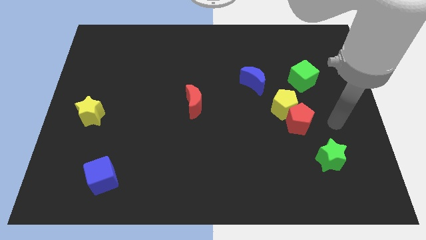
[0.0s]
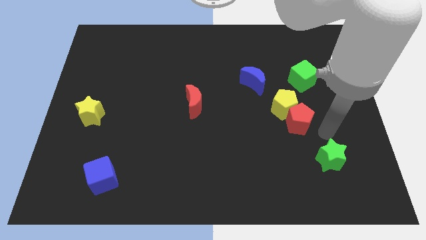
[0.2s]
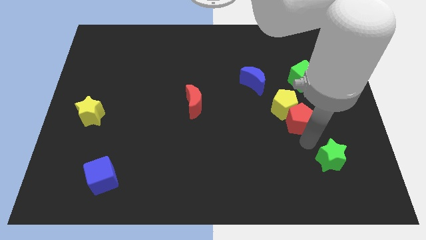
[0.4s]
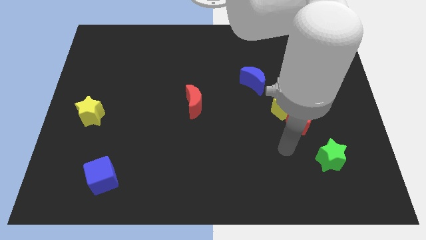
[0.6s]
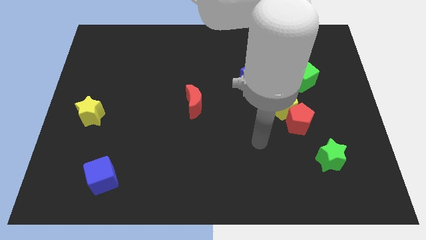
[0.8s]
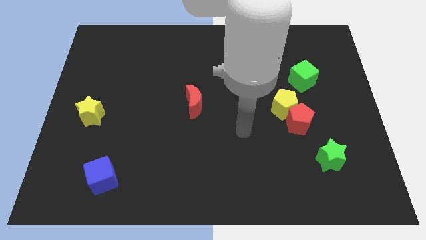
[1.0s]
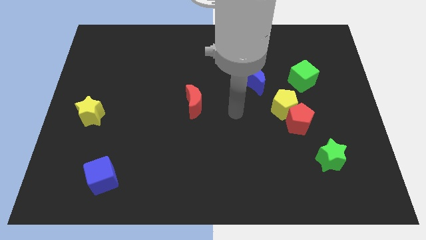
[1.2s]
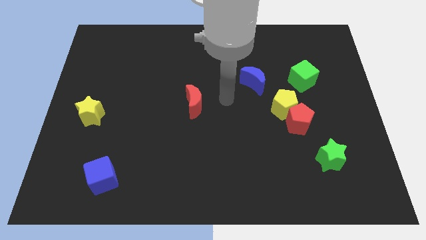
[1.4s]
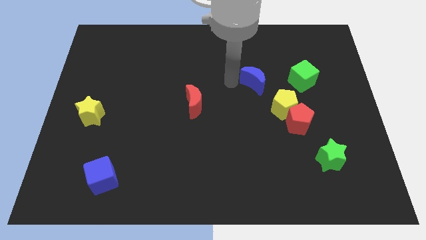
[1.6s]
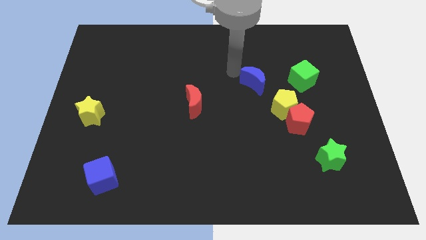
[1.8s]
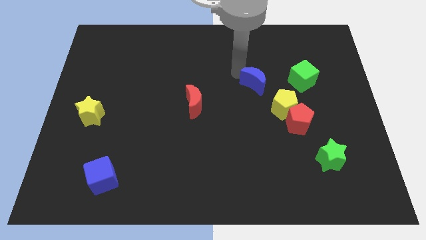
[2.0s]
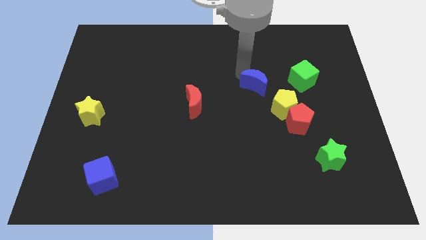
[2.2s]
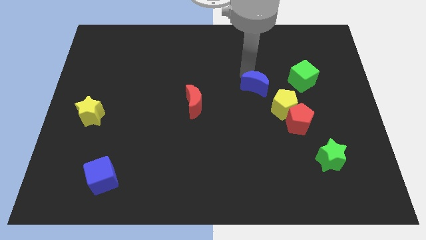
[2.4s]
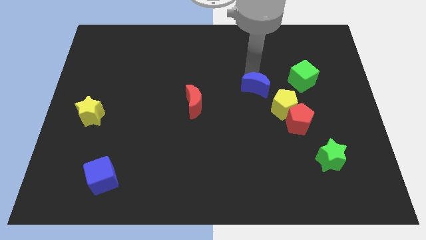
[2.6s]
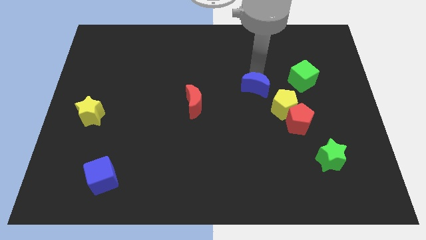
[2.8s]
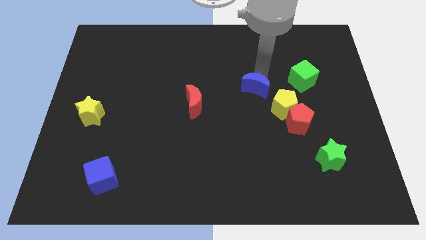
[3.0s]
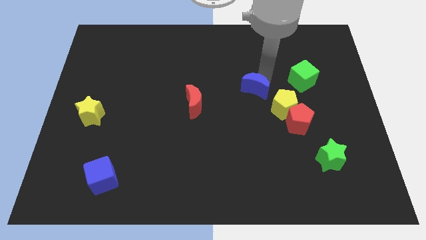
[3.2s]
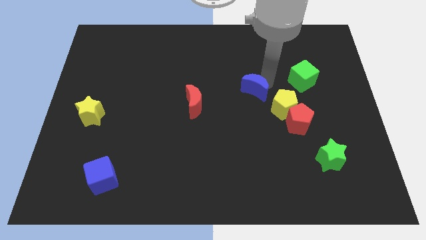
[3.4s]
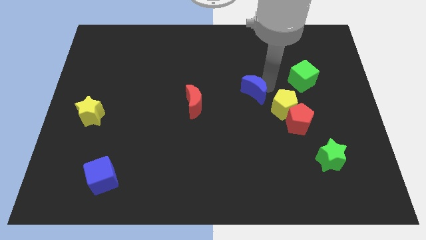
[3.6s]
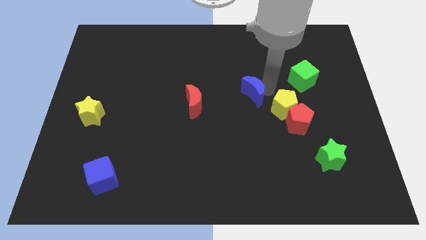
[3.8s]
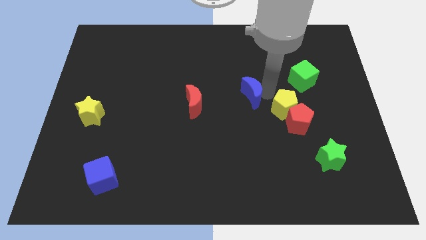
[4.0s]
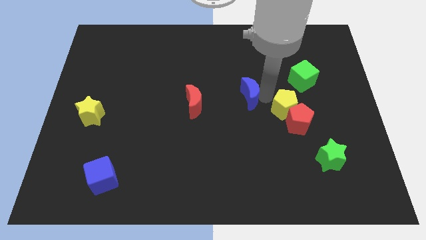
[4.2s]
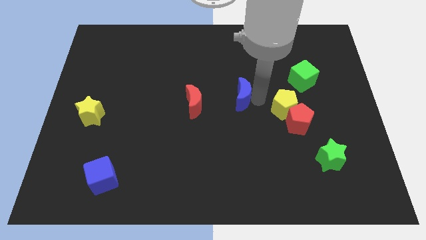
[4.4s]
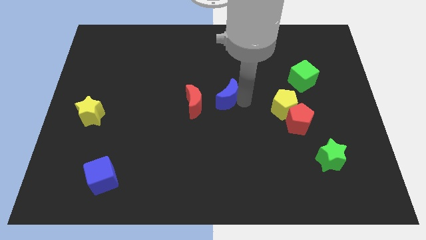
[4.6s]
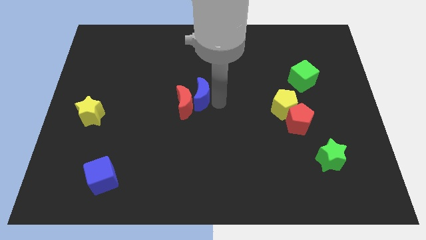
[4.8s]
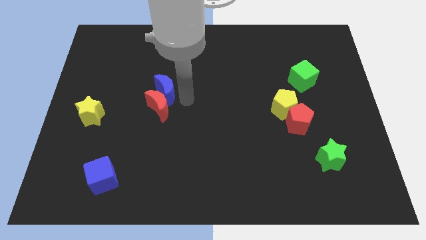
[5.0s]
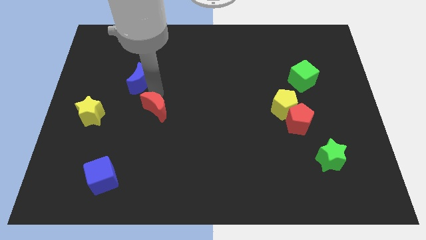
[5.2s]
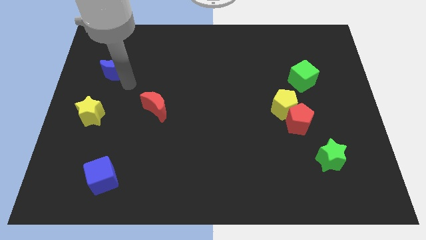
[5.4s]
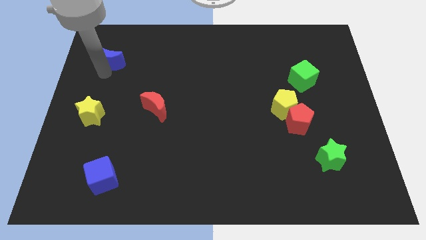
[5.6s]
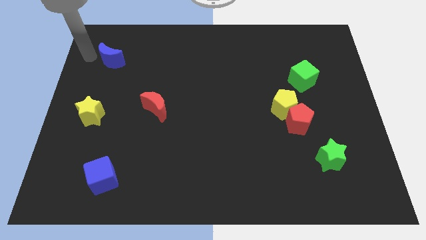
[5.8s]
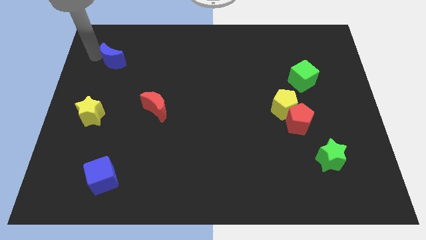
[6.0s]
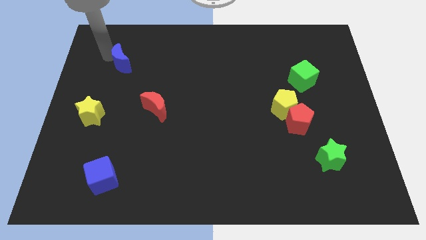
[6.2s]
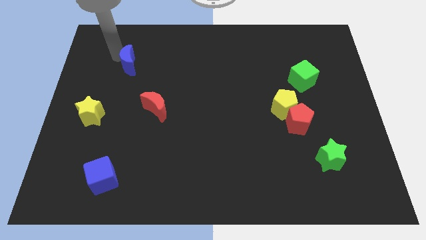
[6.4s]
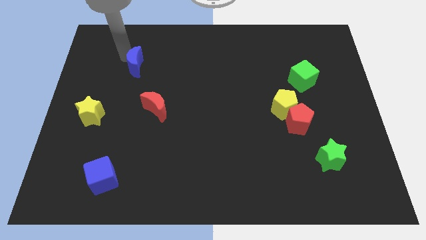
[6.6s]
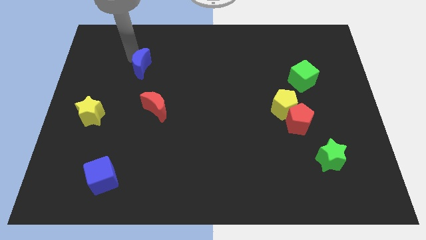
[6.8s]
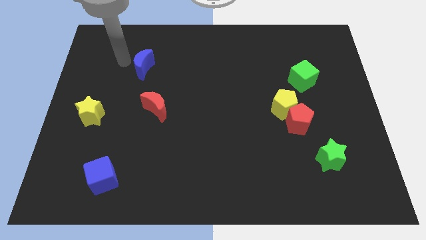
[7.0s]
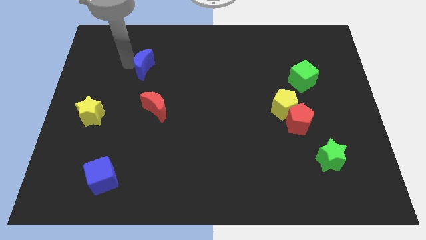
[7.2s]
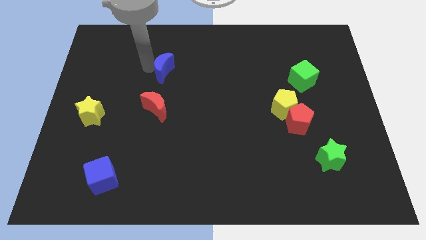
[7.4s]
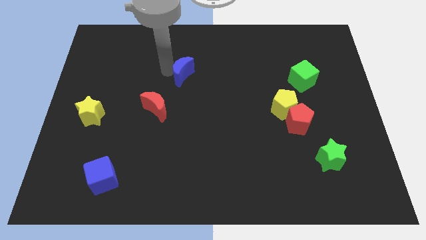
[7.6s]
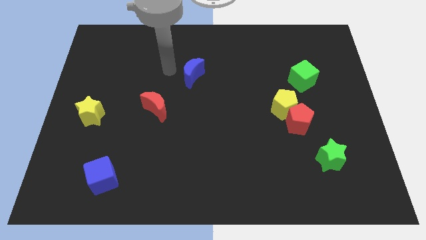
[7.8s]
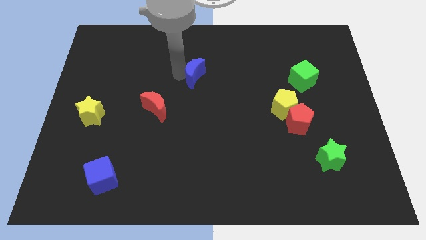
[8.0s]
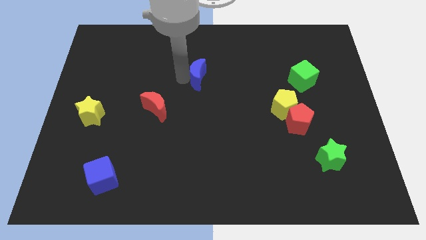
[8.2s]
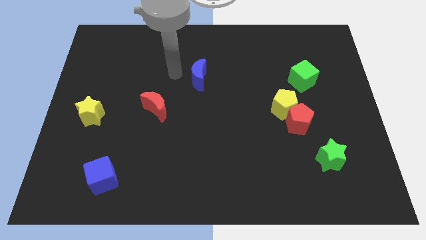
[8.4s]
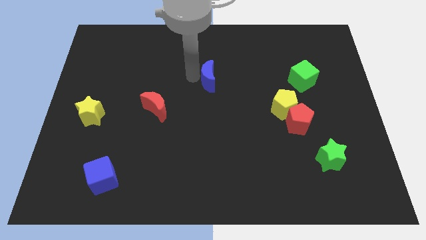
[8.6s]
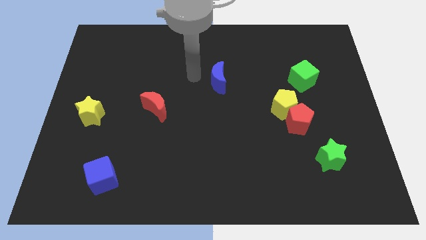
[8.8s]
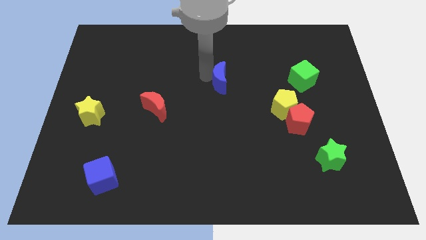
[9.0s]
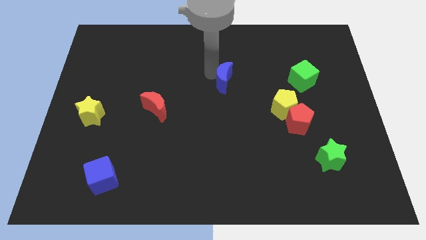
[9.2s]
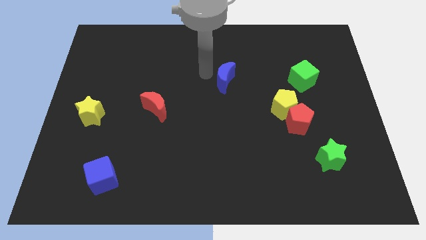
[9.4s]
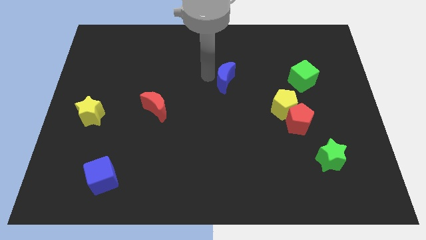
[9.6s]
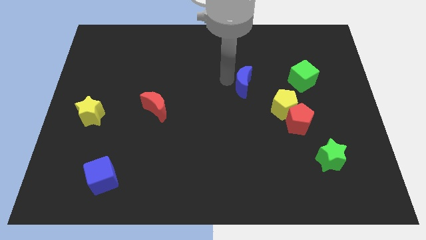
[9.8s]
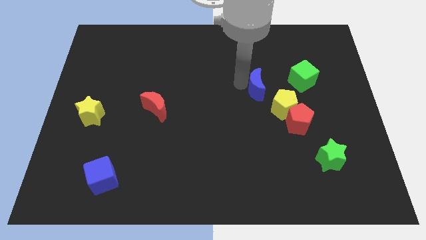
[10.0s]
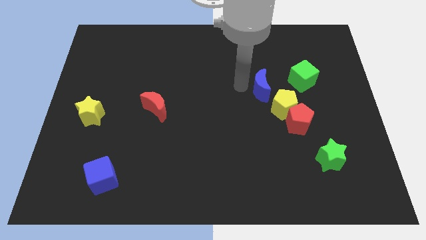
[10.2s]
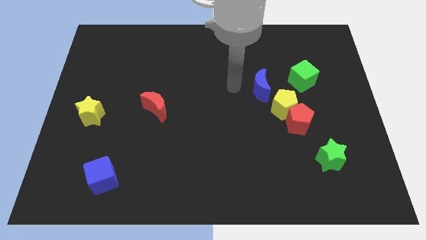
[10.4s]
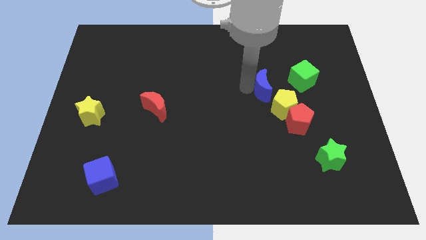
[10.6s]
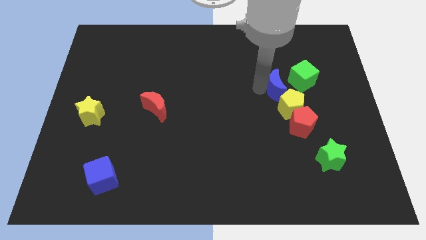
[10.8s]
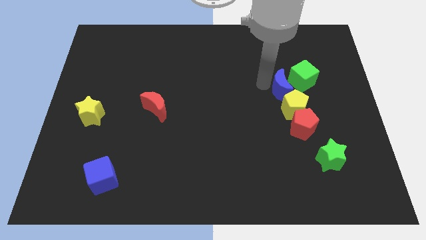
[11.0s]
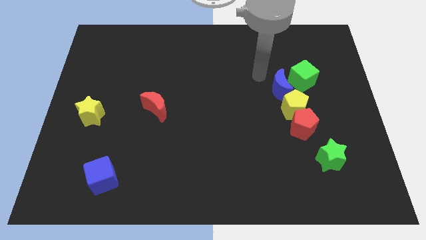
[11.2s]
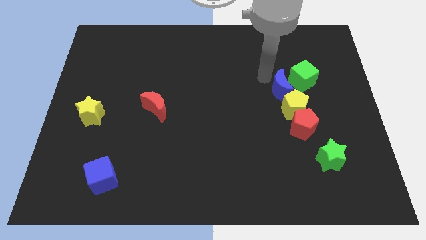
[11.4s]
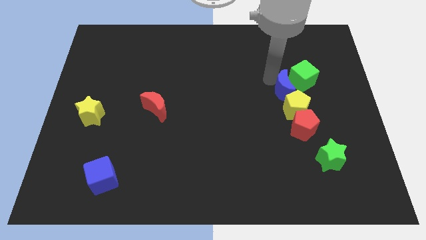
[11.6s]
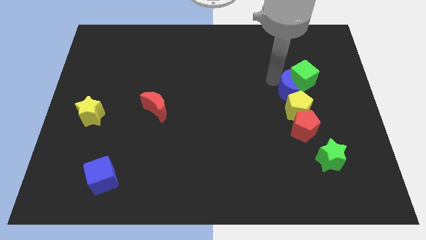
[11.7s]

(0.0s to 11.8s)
move the blue moon down and then right a little

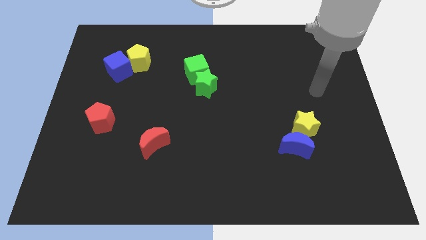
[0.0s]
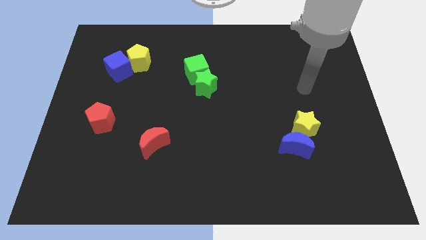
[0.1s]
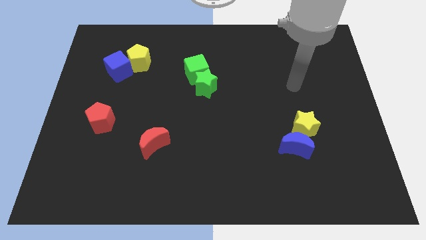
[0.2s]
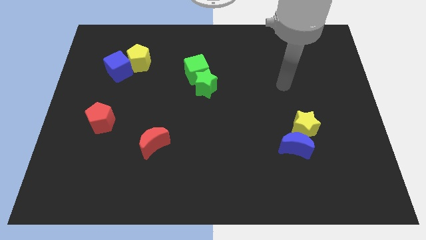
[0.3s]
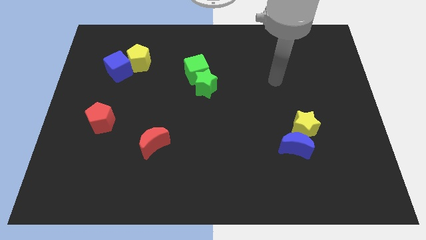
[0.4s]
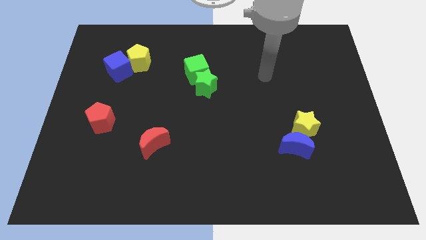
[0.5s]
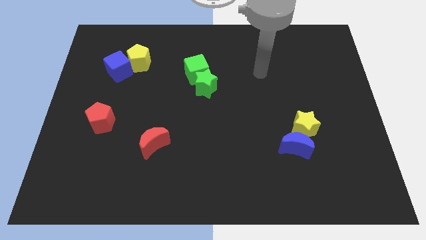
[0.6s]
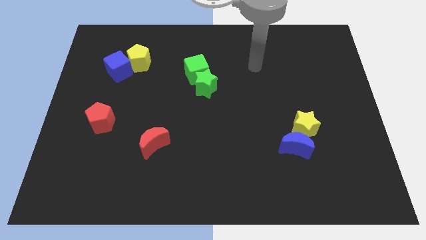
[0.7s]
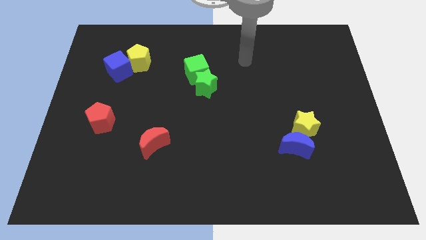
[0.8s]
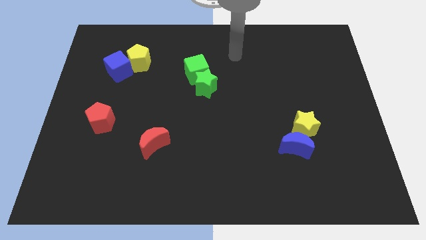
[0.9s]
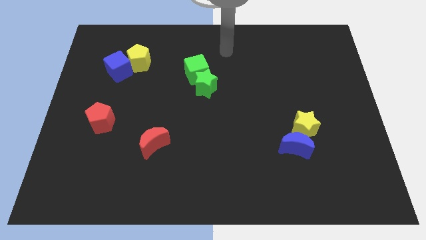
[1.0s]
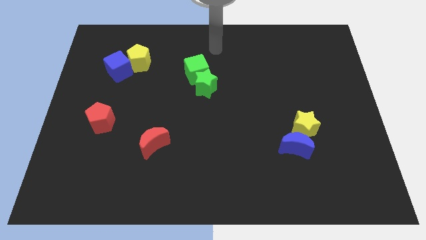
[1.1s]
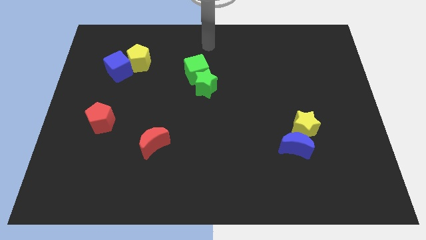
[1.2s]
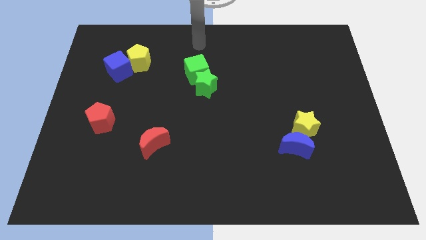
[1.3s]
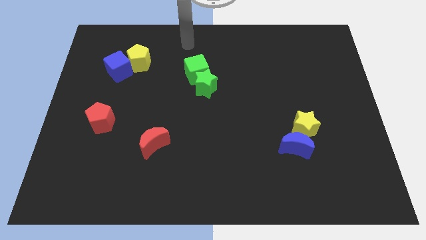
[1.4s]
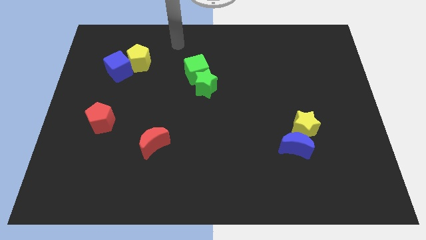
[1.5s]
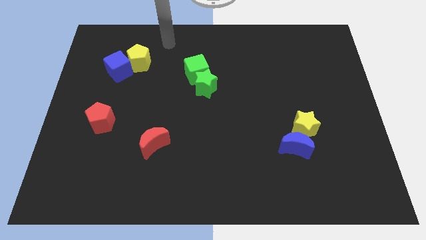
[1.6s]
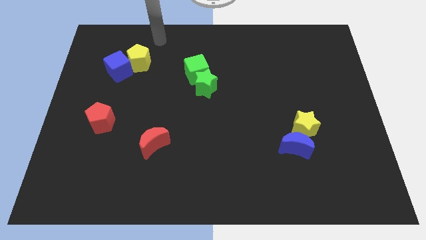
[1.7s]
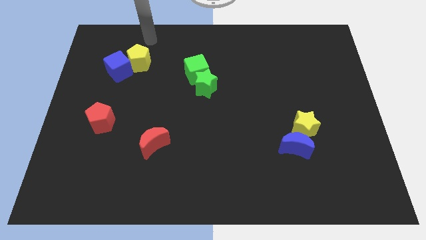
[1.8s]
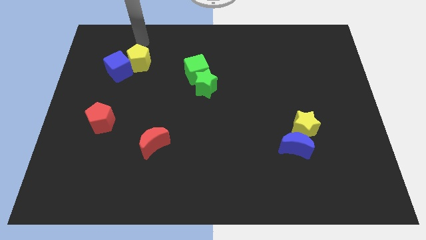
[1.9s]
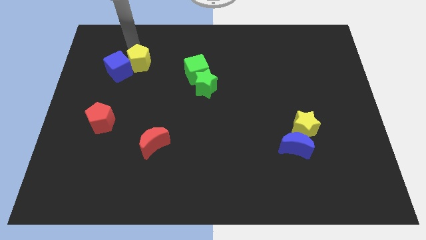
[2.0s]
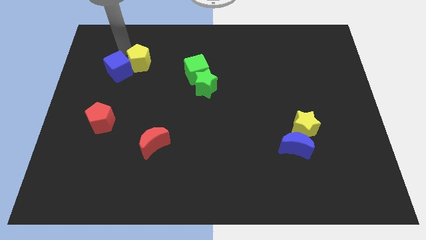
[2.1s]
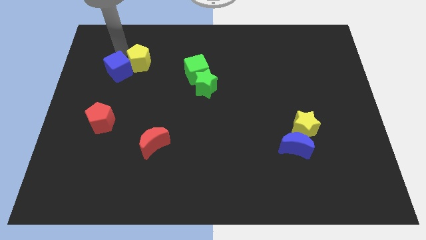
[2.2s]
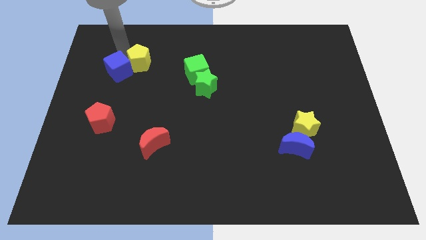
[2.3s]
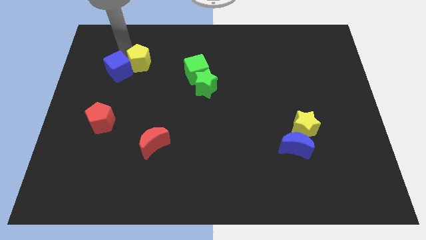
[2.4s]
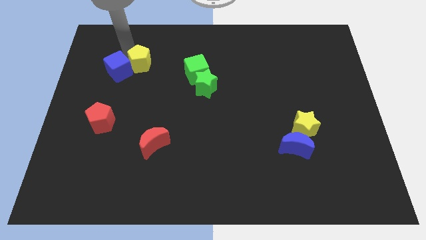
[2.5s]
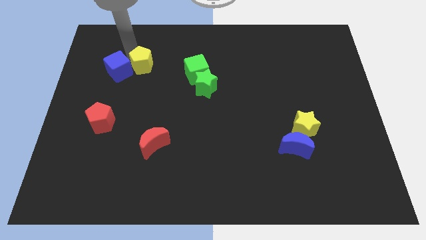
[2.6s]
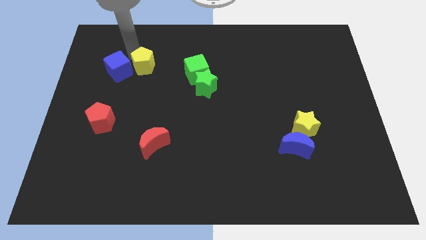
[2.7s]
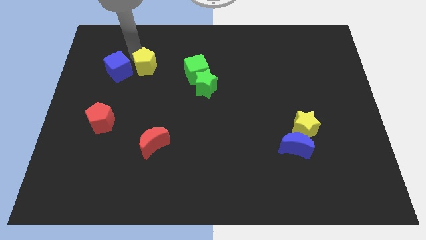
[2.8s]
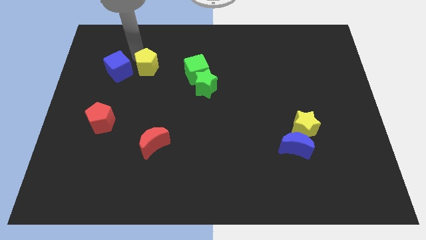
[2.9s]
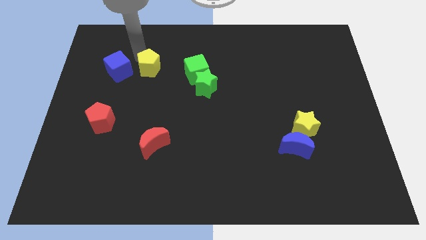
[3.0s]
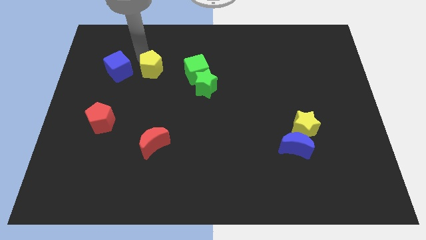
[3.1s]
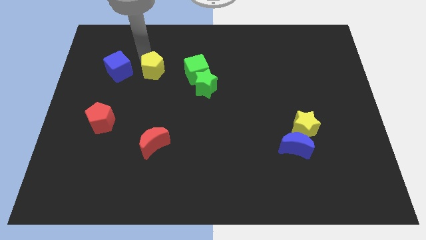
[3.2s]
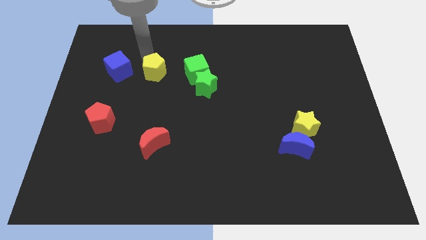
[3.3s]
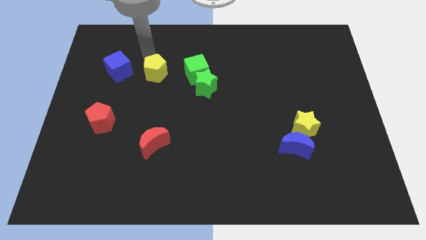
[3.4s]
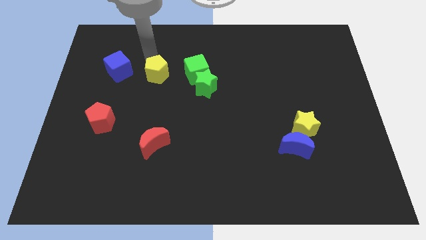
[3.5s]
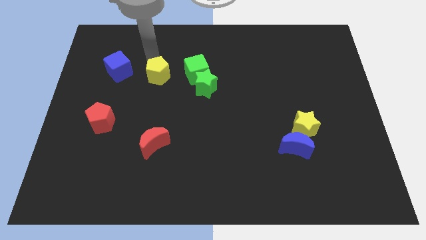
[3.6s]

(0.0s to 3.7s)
slightly move the yellow pentagon down and right
